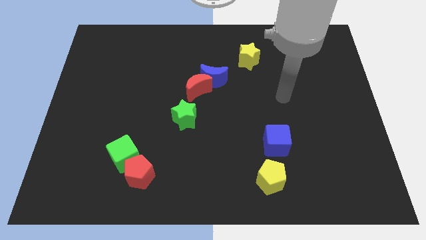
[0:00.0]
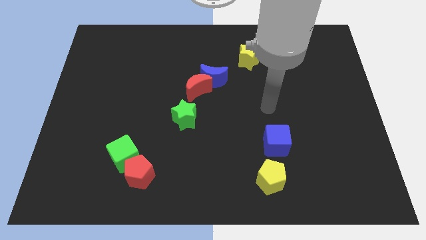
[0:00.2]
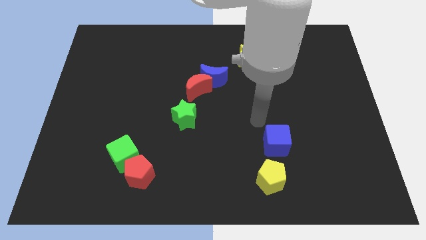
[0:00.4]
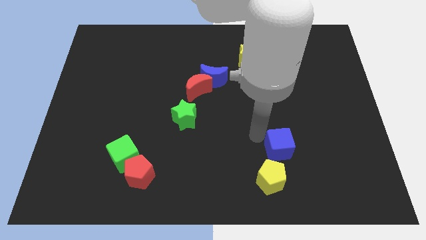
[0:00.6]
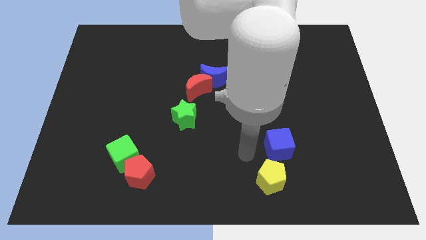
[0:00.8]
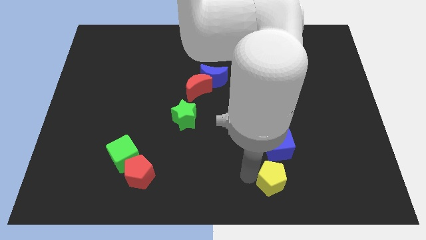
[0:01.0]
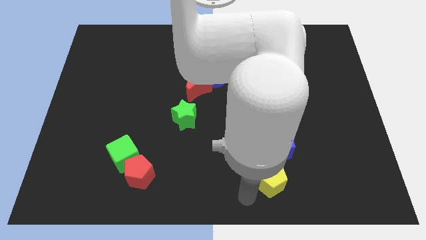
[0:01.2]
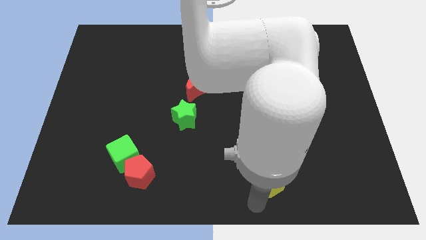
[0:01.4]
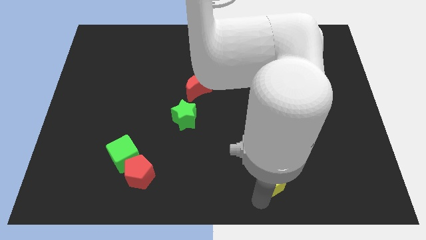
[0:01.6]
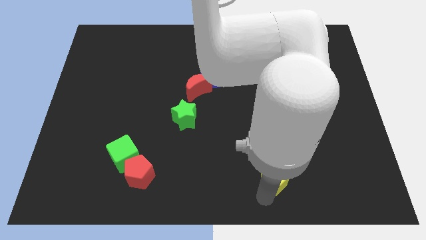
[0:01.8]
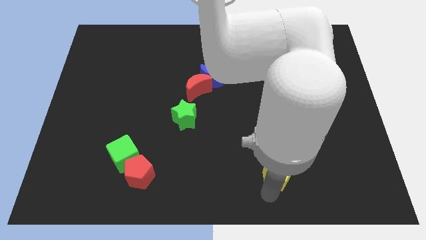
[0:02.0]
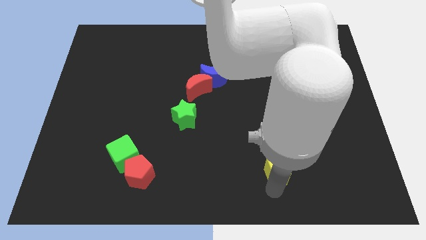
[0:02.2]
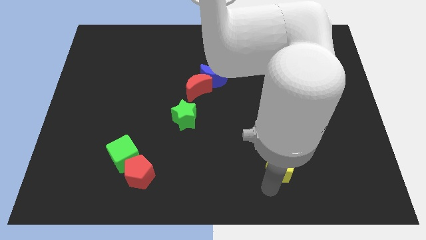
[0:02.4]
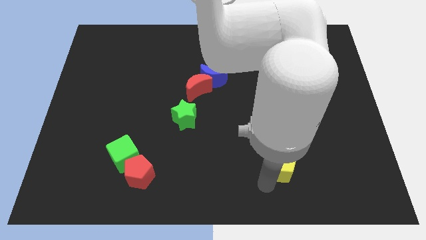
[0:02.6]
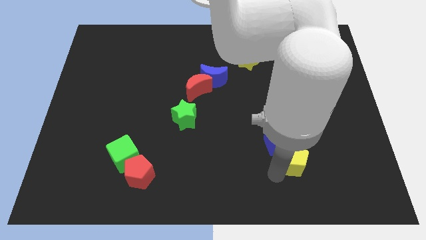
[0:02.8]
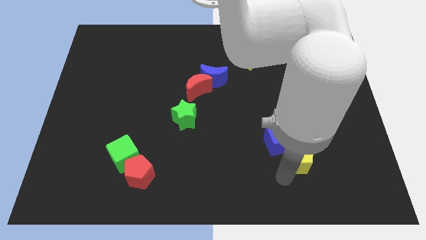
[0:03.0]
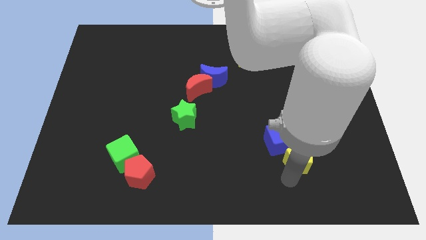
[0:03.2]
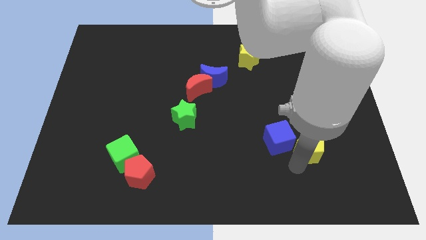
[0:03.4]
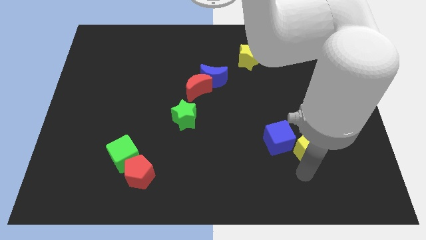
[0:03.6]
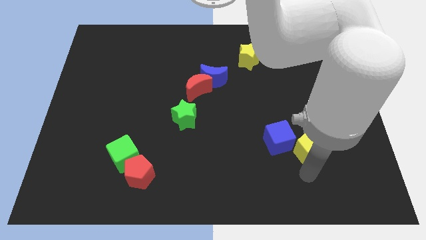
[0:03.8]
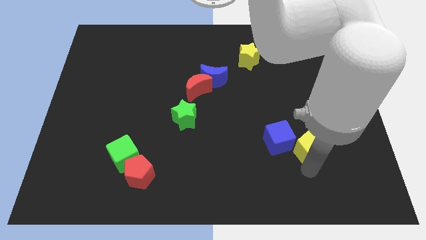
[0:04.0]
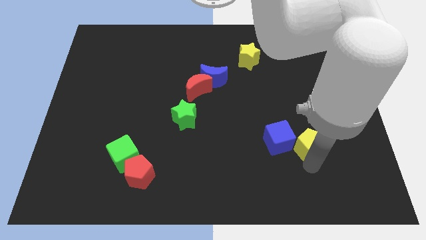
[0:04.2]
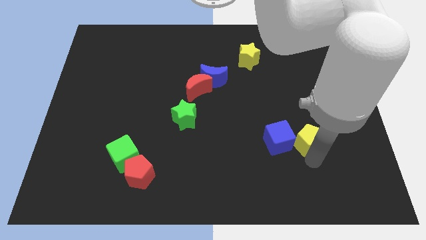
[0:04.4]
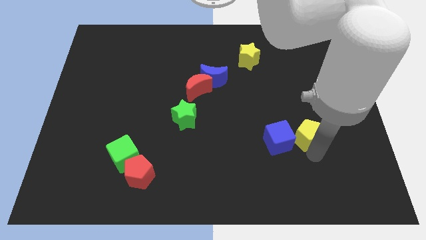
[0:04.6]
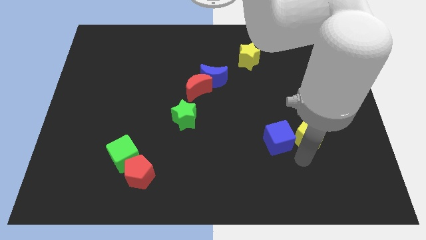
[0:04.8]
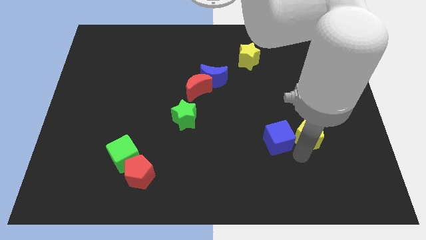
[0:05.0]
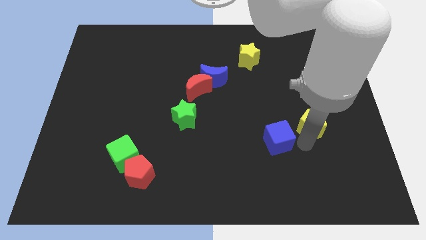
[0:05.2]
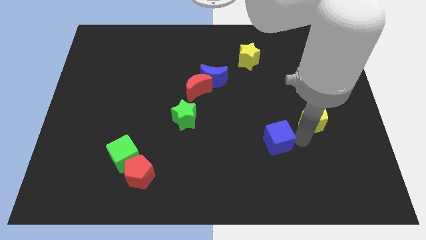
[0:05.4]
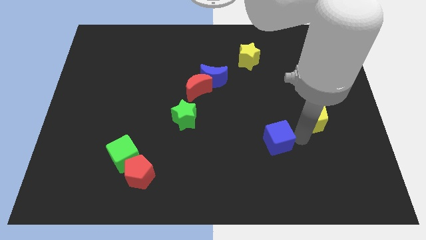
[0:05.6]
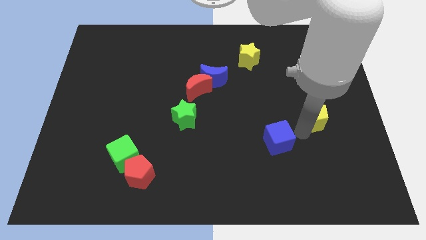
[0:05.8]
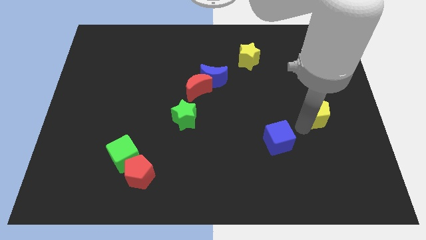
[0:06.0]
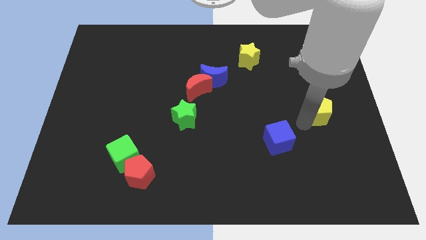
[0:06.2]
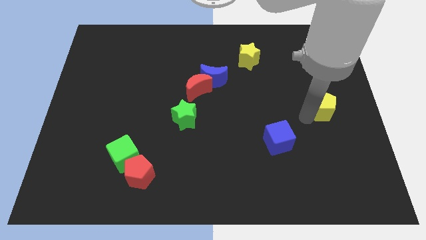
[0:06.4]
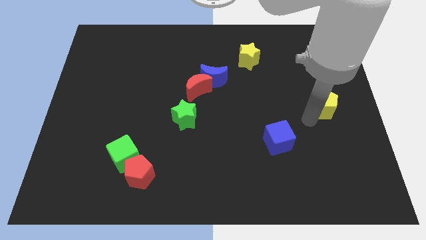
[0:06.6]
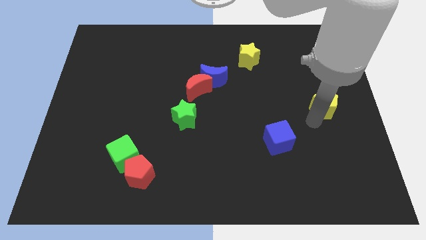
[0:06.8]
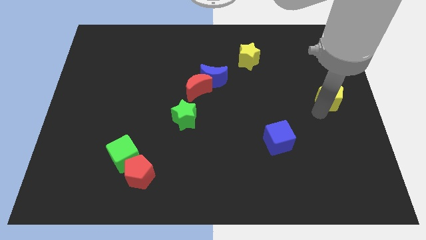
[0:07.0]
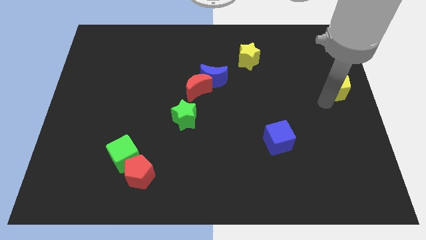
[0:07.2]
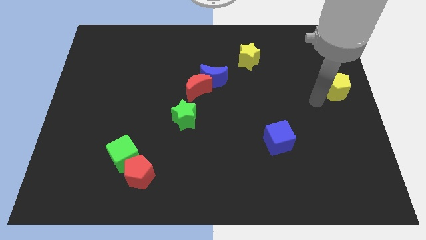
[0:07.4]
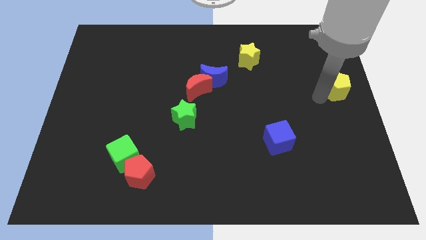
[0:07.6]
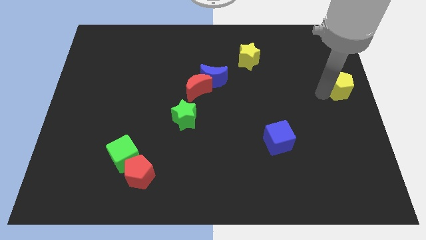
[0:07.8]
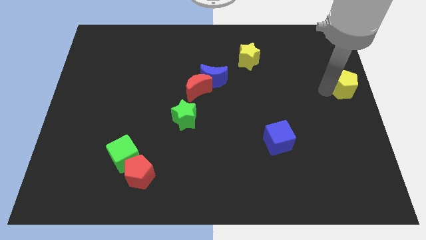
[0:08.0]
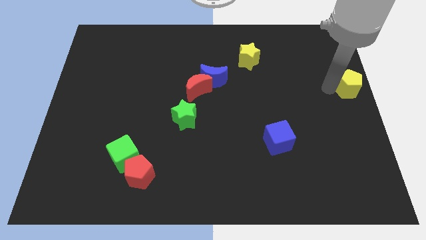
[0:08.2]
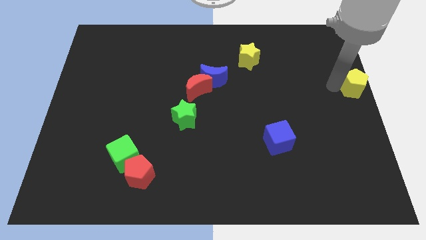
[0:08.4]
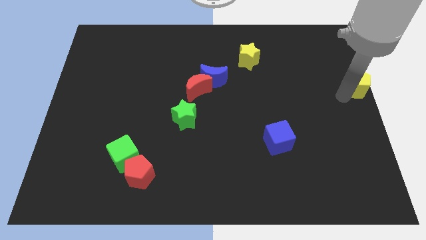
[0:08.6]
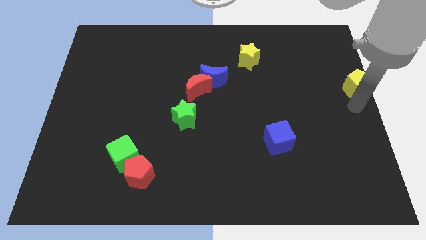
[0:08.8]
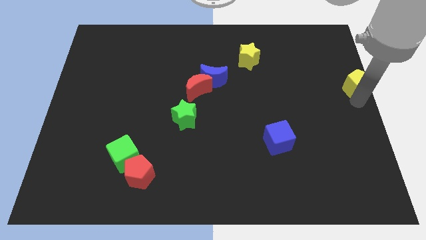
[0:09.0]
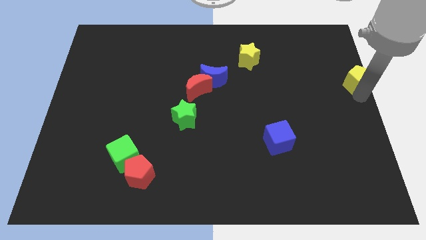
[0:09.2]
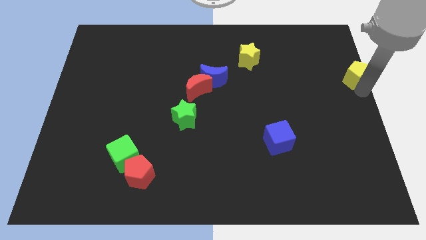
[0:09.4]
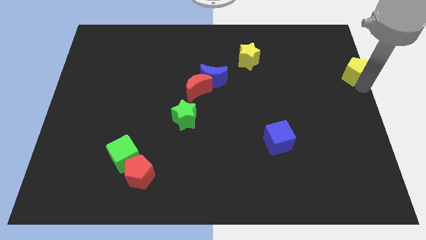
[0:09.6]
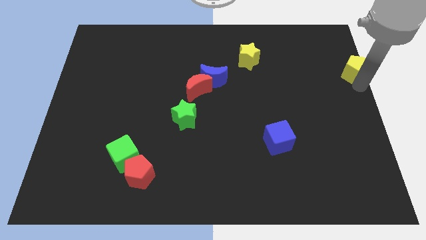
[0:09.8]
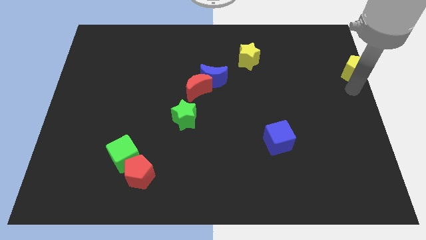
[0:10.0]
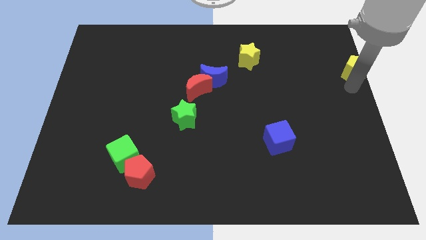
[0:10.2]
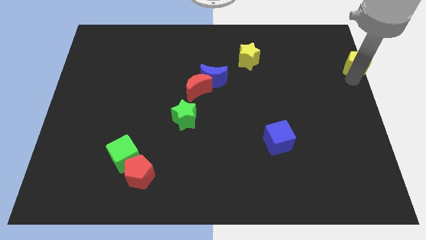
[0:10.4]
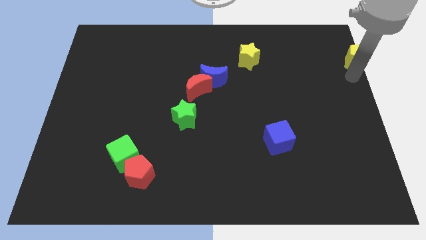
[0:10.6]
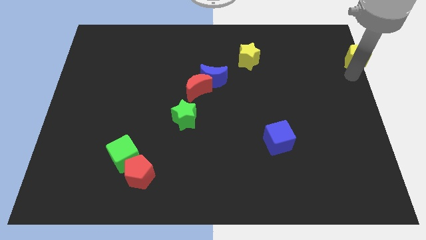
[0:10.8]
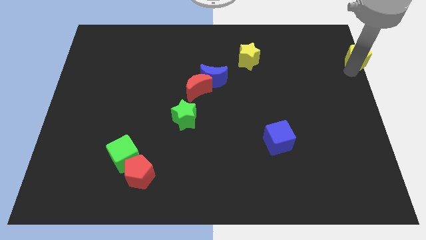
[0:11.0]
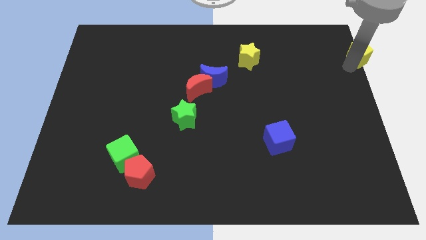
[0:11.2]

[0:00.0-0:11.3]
put the yellow pentagon to the top right

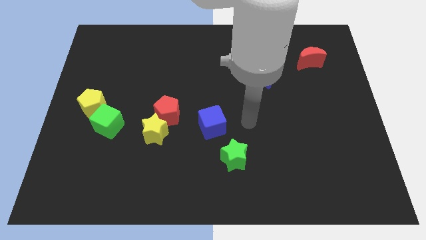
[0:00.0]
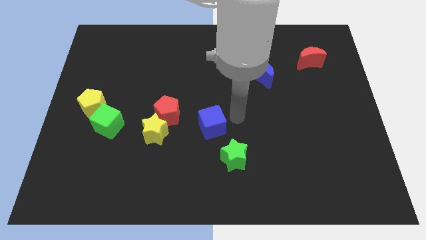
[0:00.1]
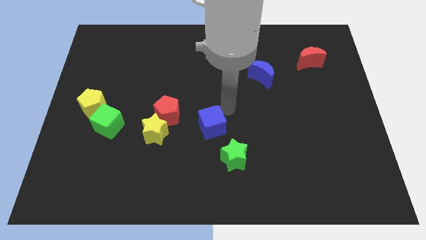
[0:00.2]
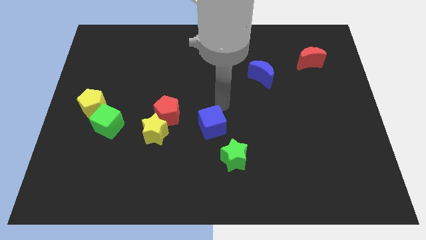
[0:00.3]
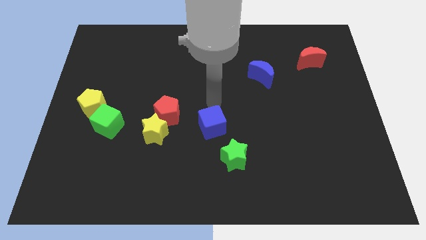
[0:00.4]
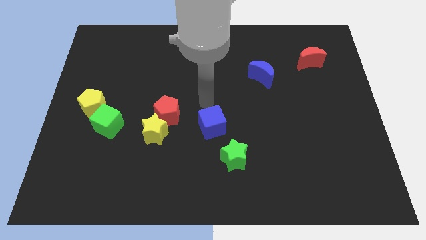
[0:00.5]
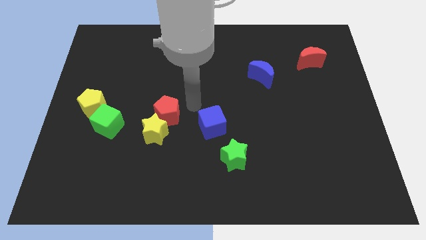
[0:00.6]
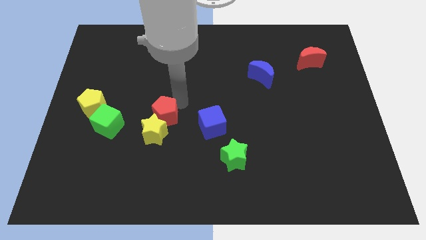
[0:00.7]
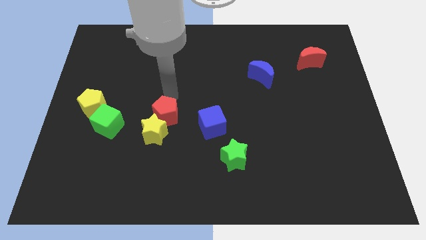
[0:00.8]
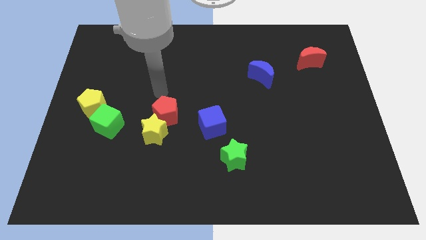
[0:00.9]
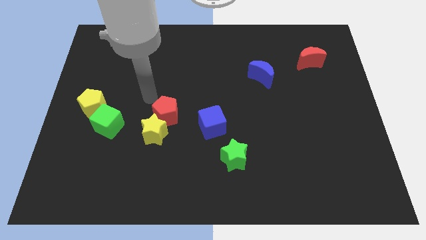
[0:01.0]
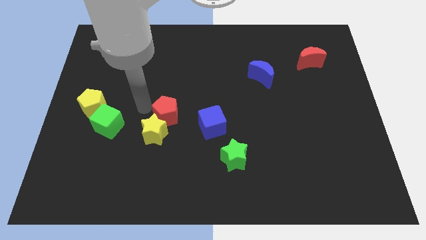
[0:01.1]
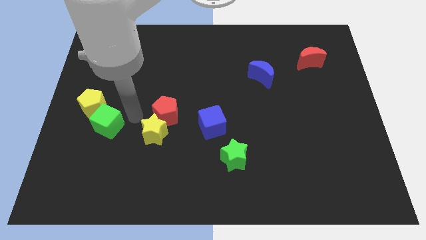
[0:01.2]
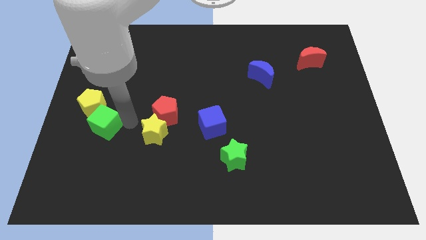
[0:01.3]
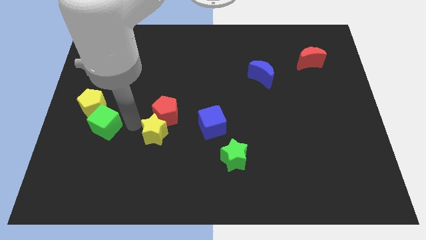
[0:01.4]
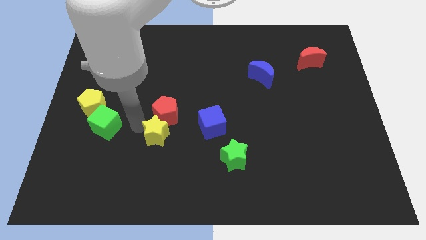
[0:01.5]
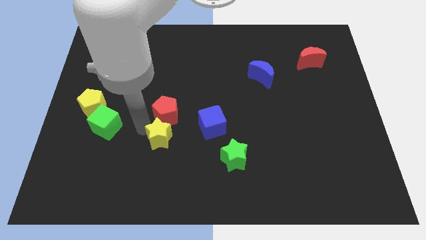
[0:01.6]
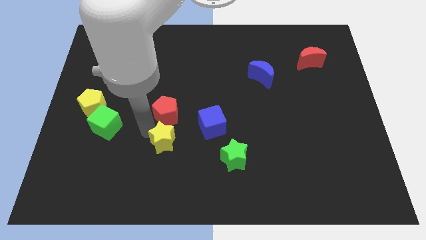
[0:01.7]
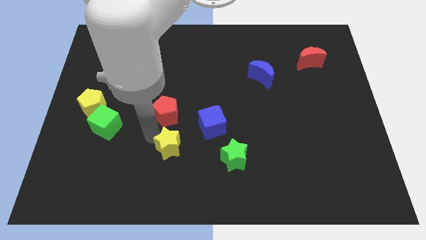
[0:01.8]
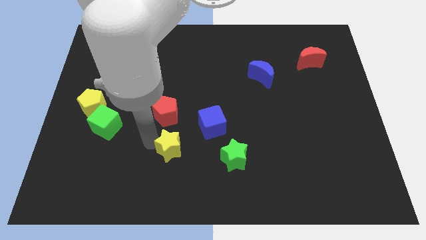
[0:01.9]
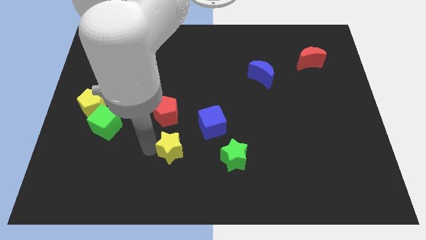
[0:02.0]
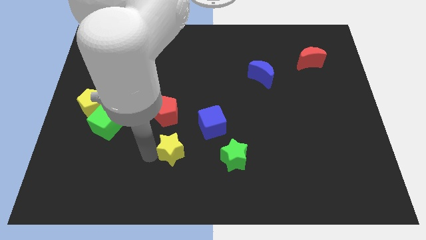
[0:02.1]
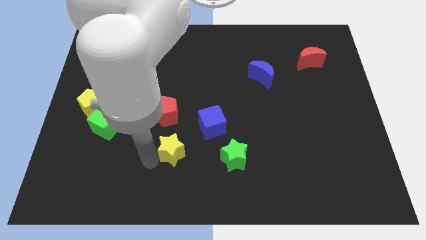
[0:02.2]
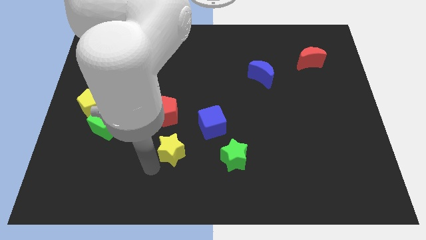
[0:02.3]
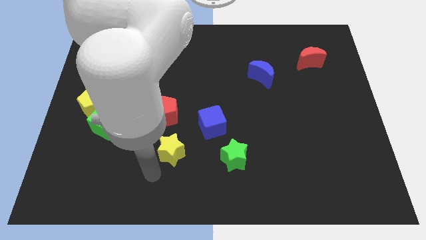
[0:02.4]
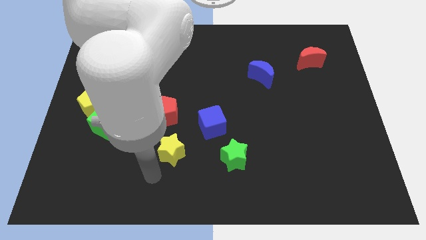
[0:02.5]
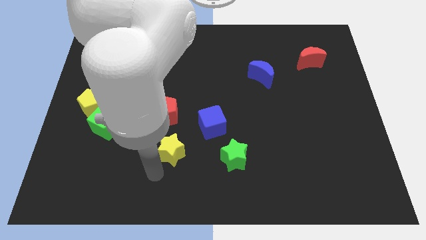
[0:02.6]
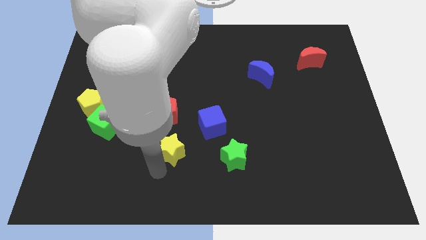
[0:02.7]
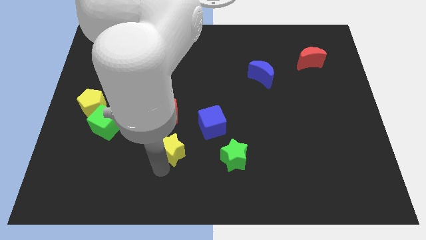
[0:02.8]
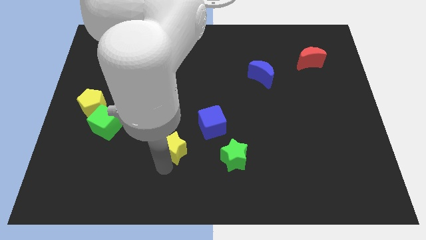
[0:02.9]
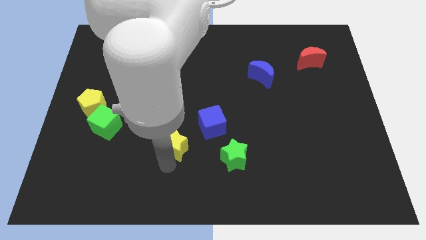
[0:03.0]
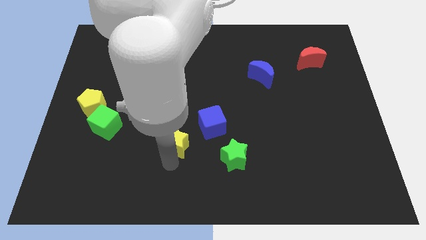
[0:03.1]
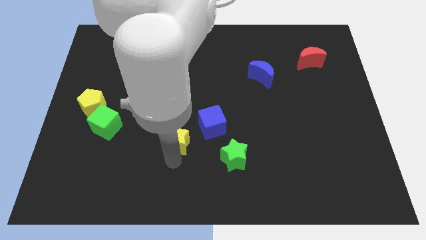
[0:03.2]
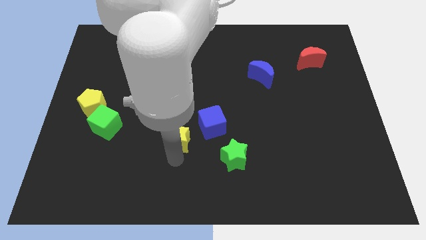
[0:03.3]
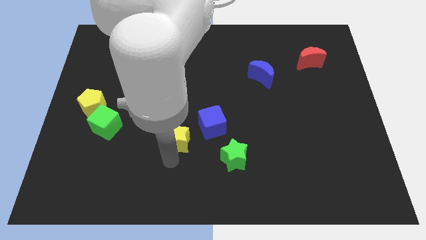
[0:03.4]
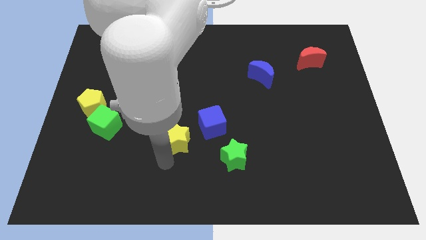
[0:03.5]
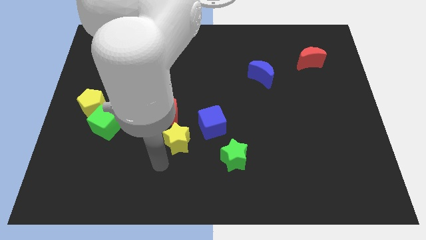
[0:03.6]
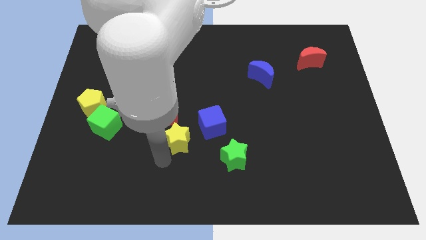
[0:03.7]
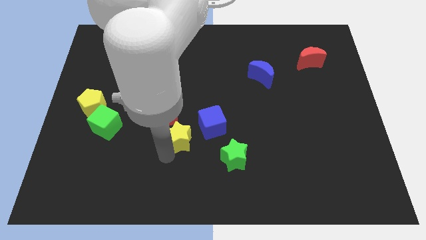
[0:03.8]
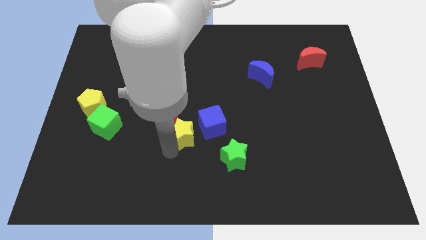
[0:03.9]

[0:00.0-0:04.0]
put the yellow star to the middle of the board
